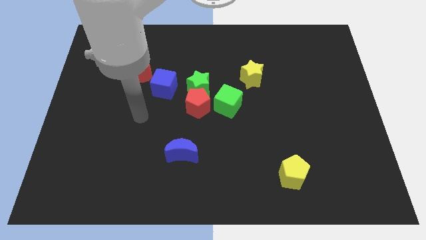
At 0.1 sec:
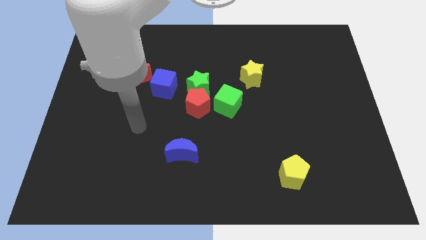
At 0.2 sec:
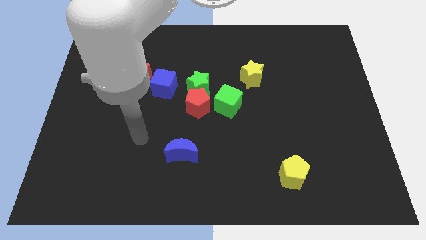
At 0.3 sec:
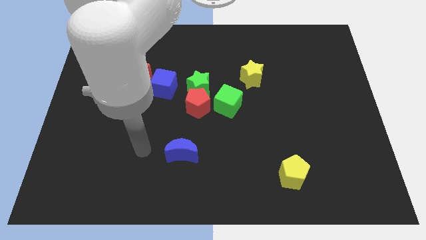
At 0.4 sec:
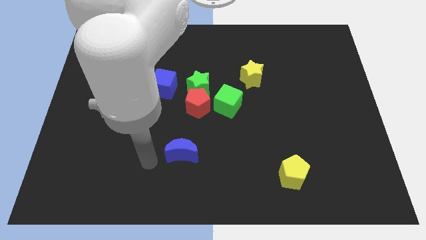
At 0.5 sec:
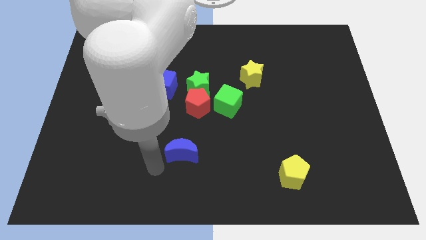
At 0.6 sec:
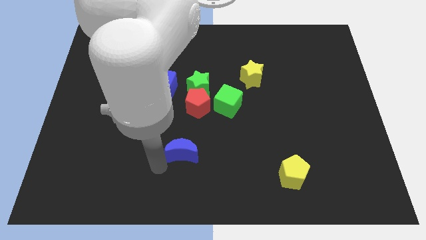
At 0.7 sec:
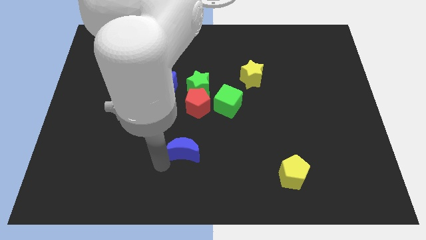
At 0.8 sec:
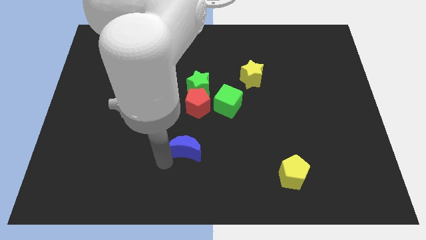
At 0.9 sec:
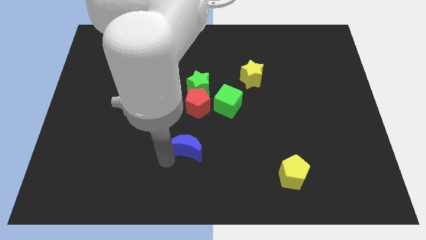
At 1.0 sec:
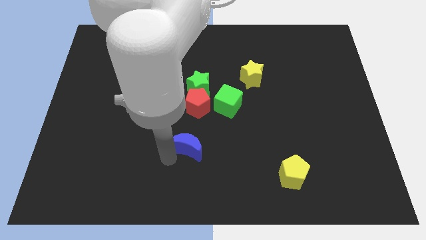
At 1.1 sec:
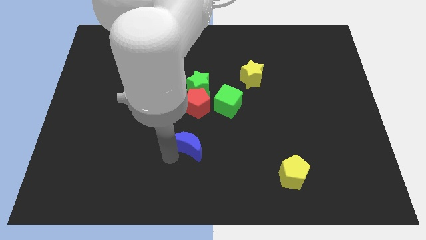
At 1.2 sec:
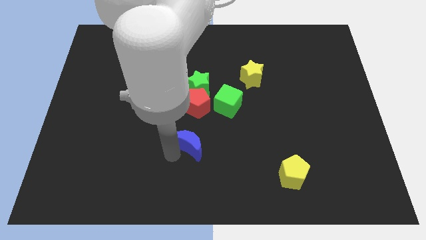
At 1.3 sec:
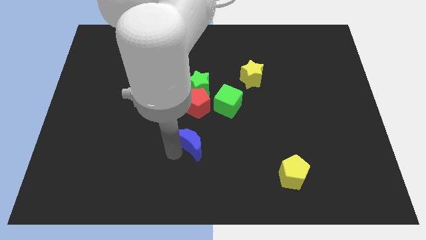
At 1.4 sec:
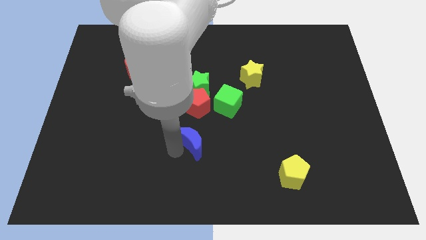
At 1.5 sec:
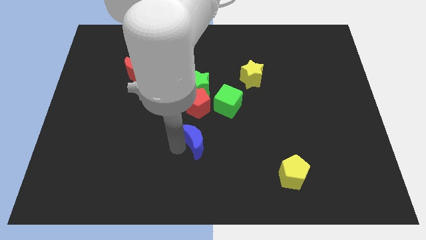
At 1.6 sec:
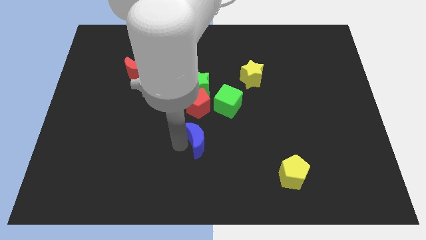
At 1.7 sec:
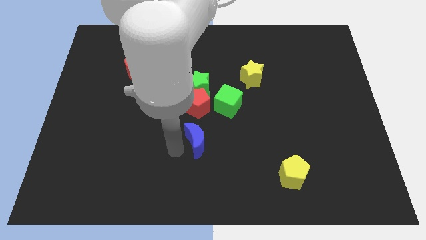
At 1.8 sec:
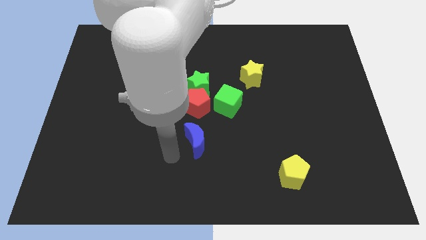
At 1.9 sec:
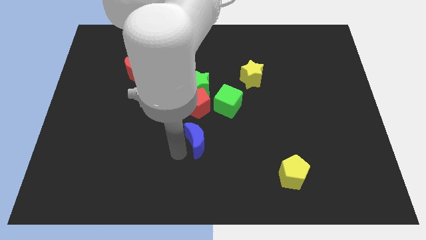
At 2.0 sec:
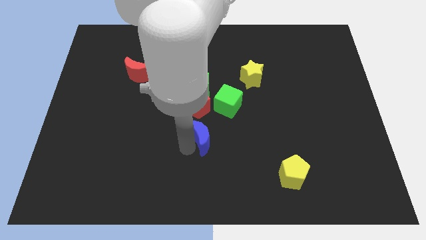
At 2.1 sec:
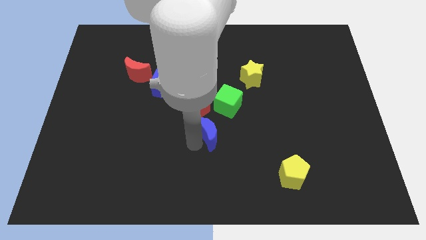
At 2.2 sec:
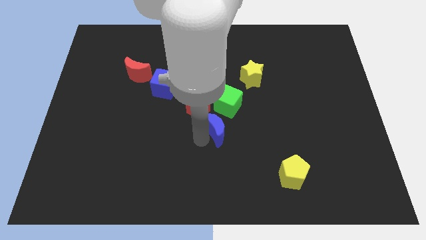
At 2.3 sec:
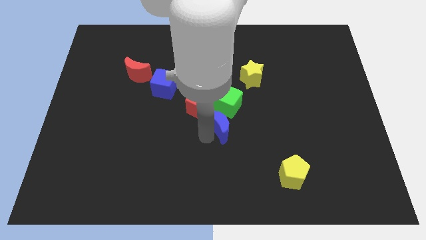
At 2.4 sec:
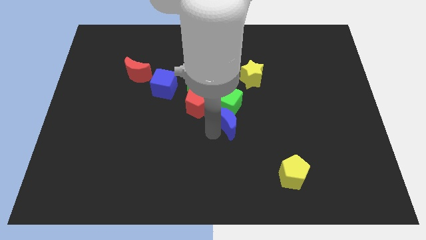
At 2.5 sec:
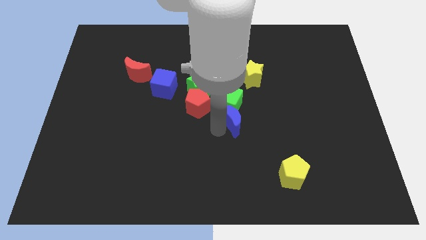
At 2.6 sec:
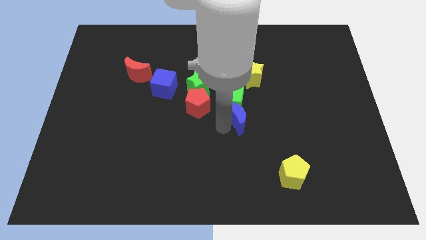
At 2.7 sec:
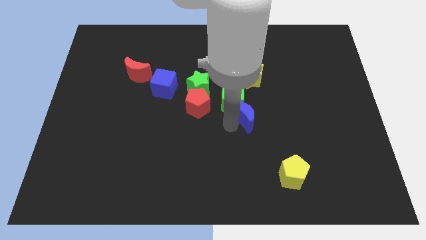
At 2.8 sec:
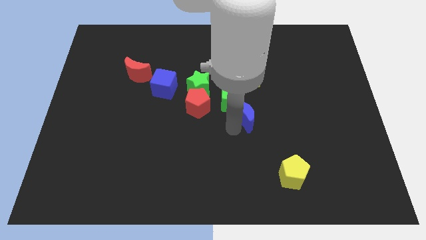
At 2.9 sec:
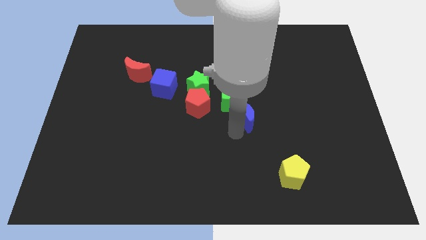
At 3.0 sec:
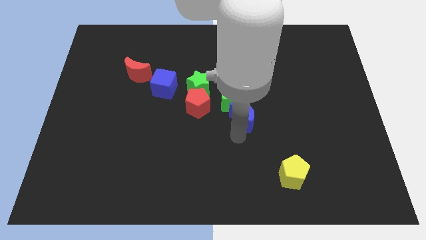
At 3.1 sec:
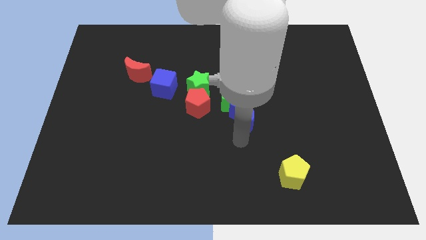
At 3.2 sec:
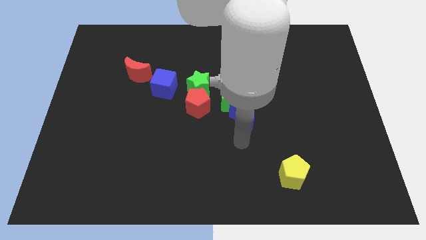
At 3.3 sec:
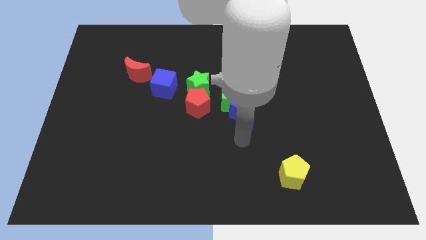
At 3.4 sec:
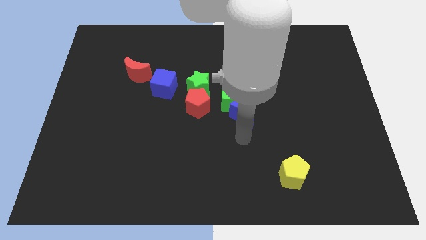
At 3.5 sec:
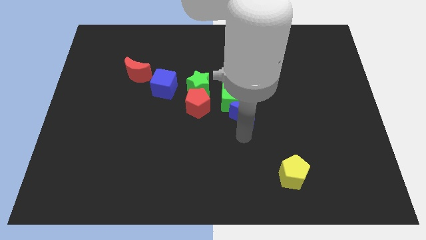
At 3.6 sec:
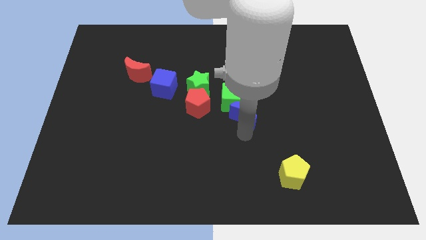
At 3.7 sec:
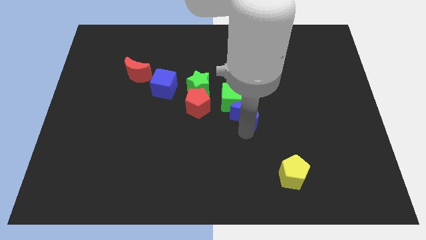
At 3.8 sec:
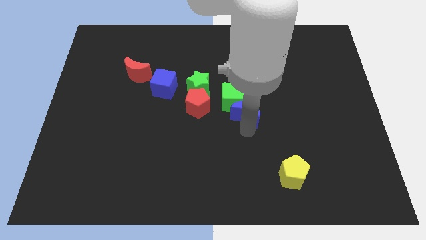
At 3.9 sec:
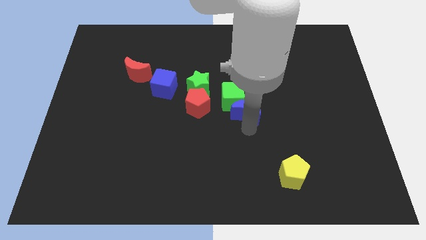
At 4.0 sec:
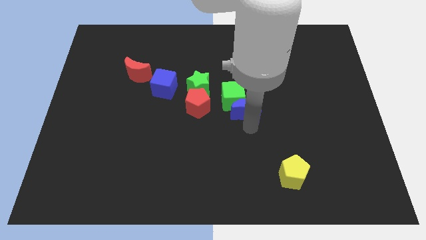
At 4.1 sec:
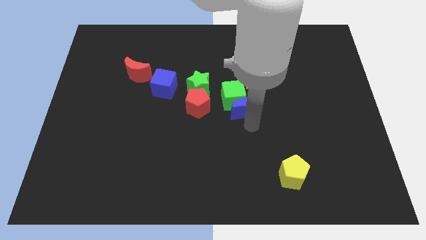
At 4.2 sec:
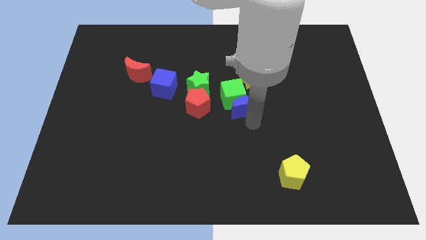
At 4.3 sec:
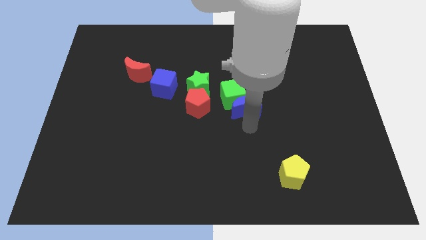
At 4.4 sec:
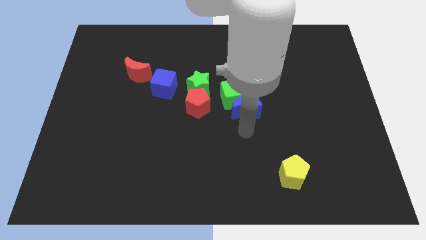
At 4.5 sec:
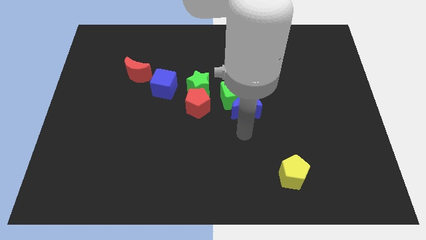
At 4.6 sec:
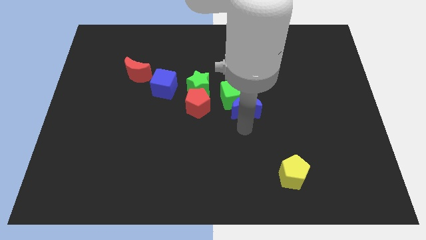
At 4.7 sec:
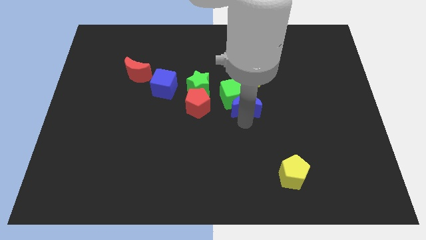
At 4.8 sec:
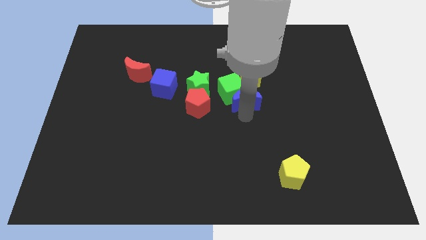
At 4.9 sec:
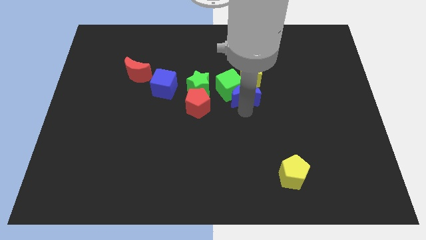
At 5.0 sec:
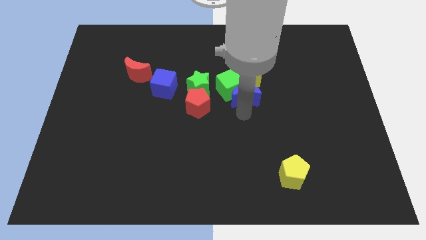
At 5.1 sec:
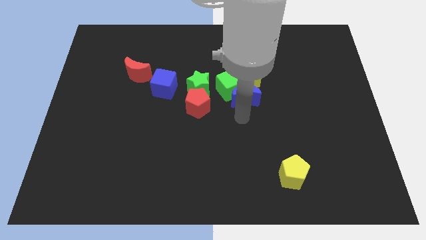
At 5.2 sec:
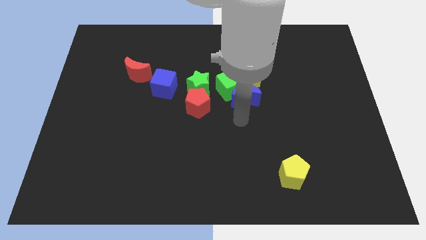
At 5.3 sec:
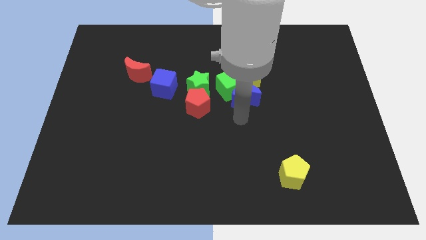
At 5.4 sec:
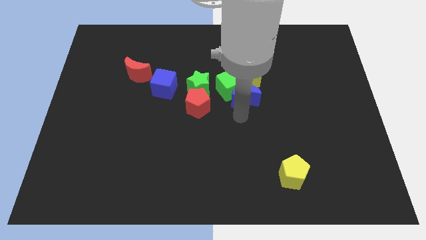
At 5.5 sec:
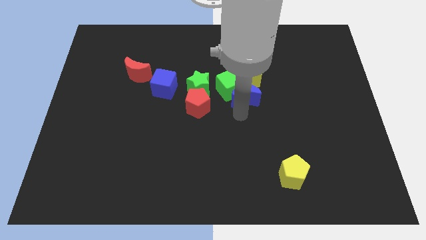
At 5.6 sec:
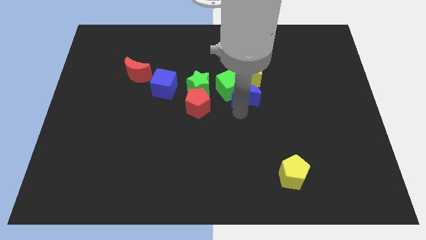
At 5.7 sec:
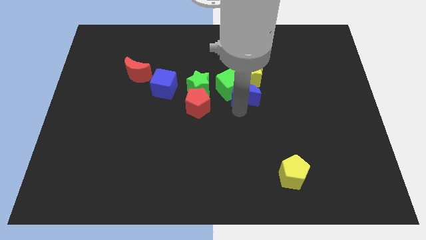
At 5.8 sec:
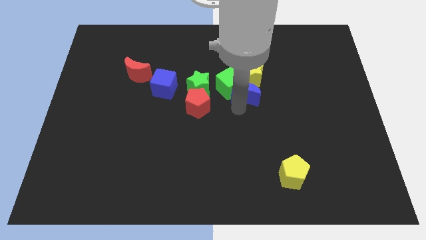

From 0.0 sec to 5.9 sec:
move the blue moon to the yellow star

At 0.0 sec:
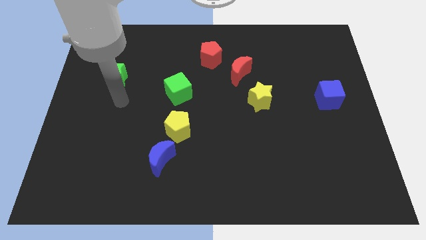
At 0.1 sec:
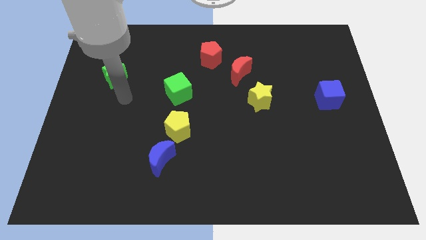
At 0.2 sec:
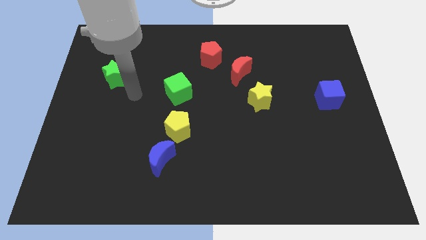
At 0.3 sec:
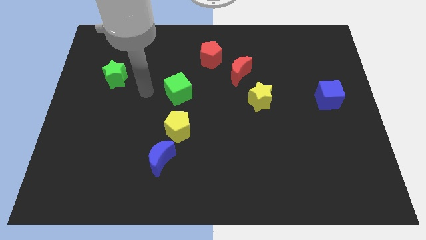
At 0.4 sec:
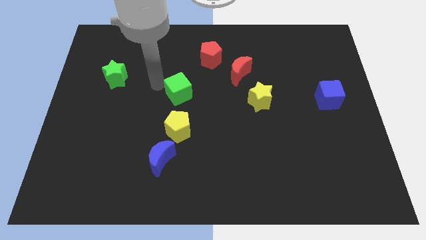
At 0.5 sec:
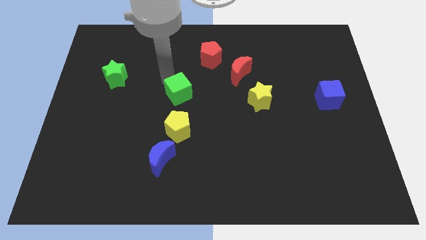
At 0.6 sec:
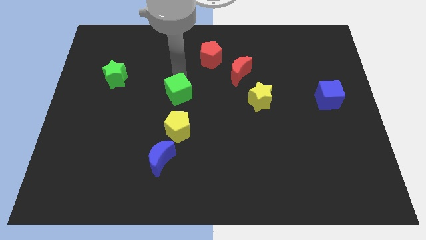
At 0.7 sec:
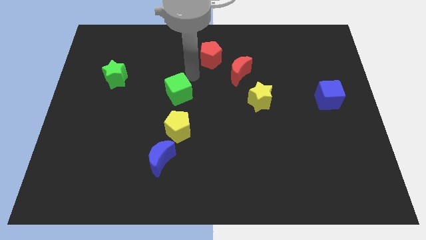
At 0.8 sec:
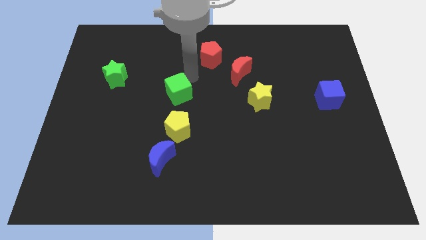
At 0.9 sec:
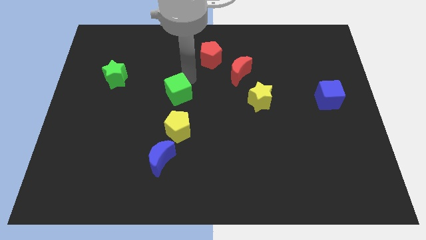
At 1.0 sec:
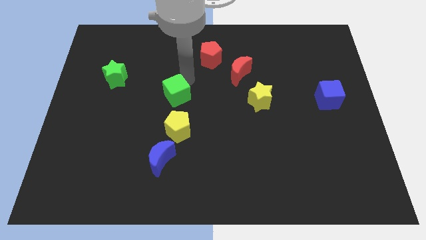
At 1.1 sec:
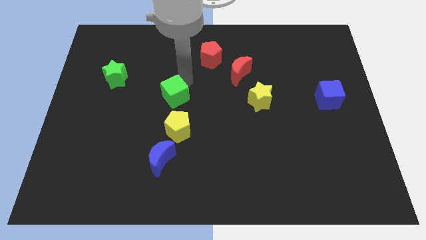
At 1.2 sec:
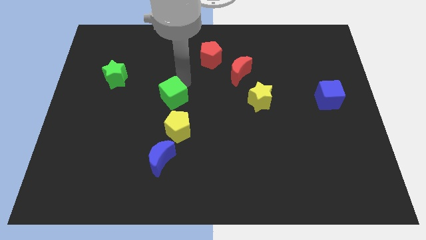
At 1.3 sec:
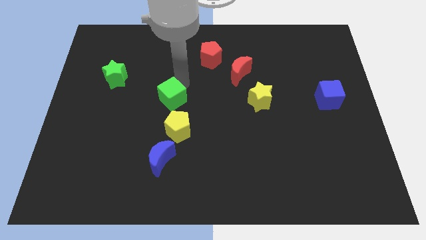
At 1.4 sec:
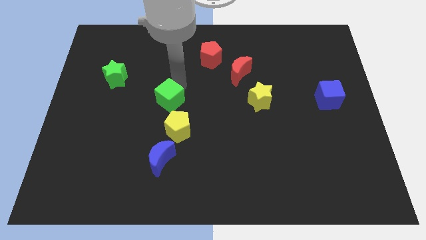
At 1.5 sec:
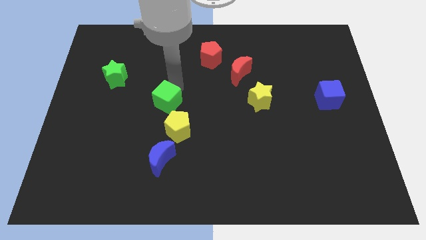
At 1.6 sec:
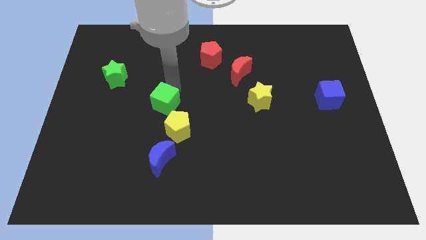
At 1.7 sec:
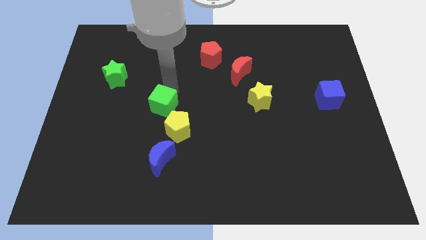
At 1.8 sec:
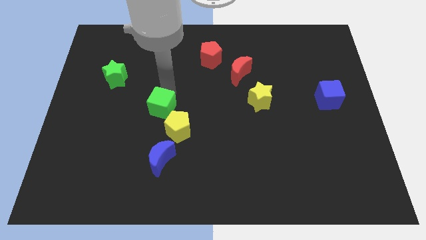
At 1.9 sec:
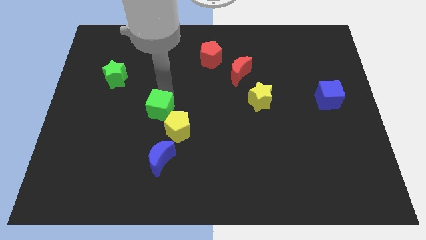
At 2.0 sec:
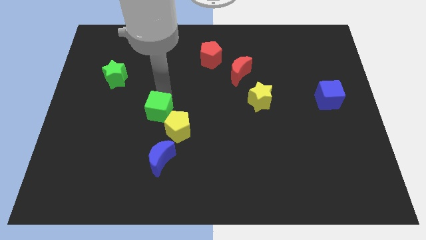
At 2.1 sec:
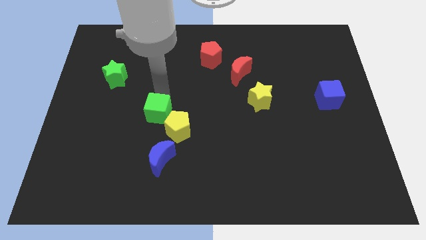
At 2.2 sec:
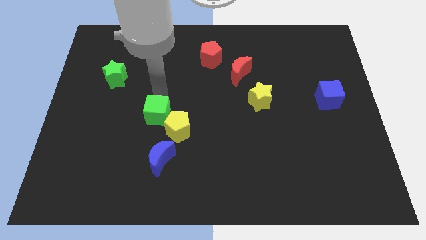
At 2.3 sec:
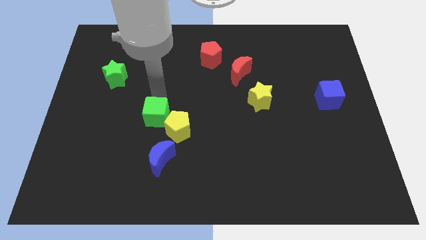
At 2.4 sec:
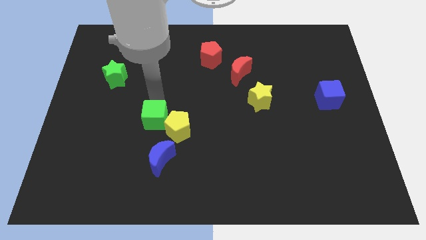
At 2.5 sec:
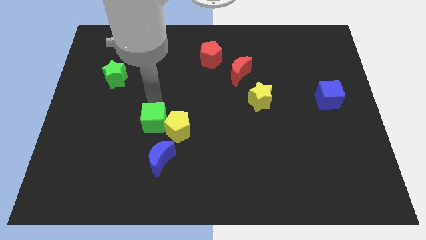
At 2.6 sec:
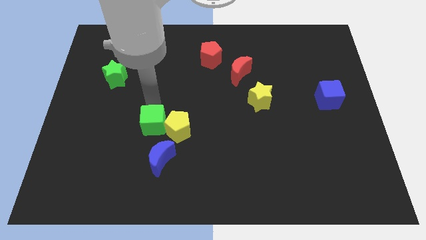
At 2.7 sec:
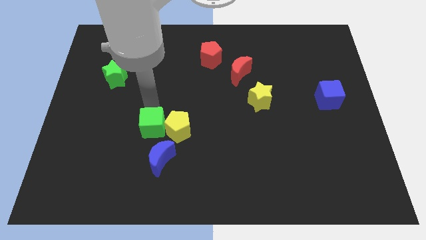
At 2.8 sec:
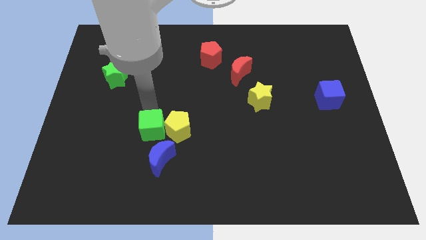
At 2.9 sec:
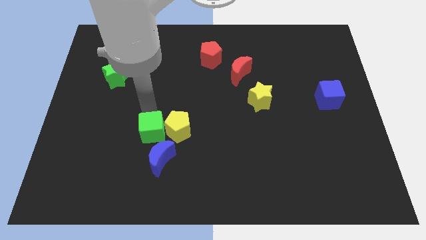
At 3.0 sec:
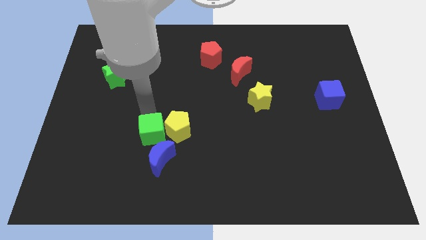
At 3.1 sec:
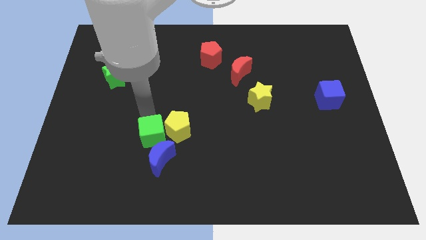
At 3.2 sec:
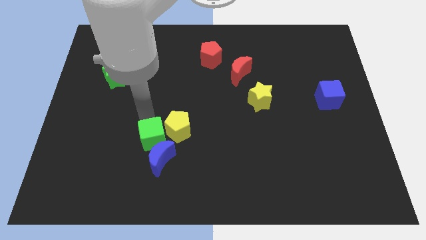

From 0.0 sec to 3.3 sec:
slide the green cube to the blue moon
